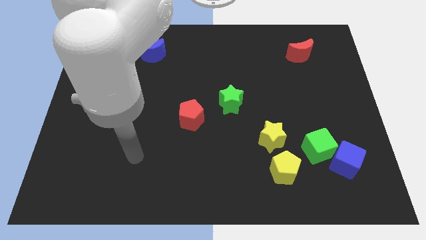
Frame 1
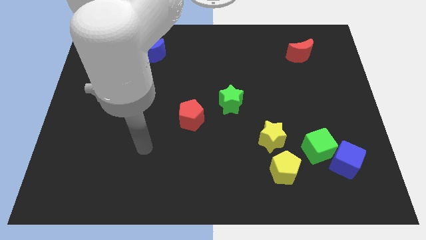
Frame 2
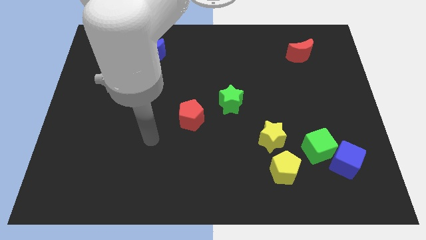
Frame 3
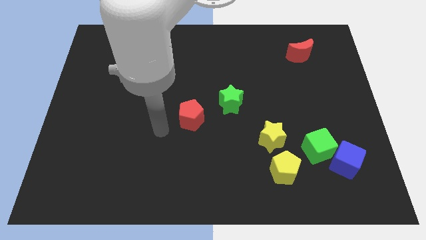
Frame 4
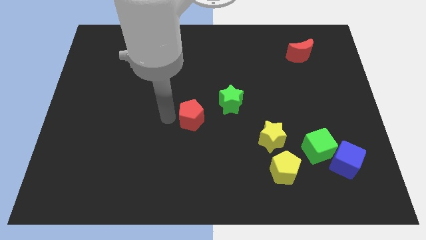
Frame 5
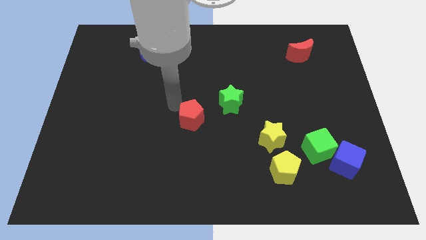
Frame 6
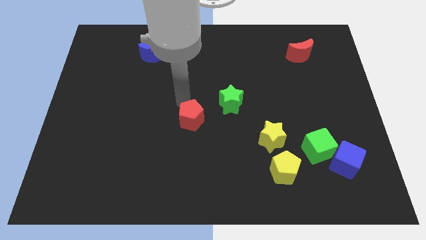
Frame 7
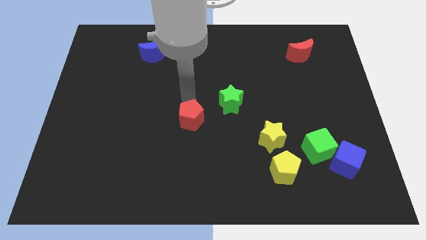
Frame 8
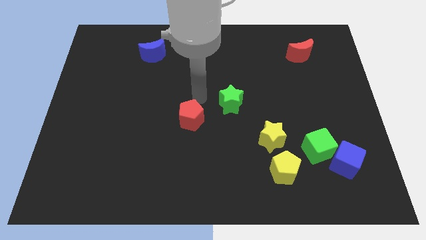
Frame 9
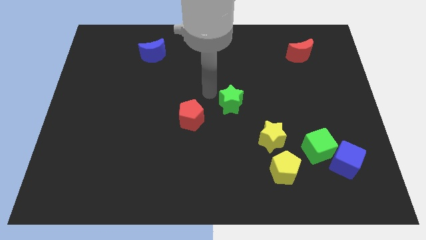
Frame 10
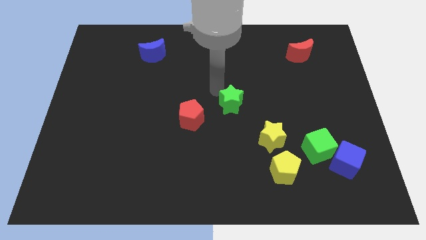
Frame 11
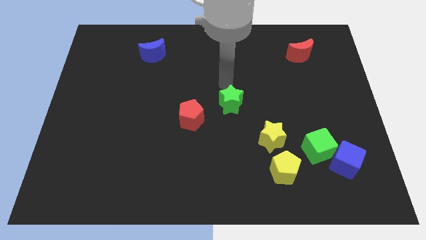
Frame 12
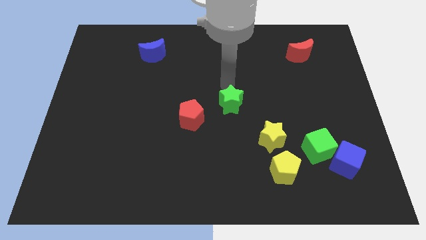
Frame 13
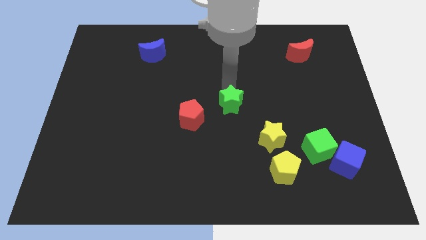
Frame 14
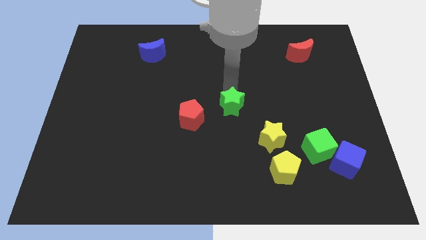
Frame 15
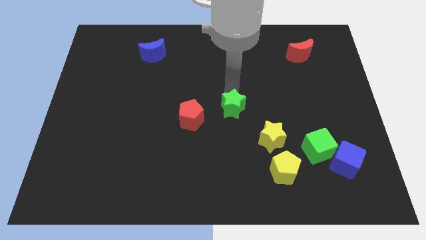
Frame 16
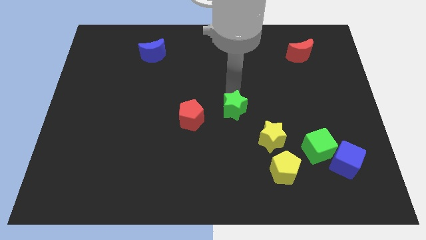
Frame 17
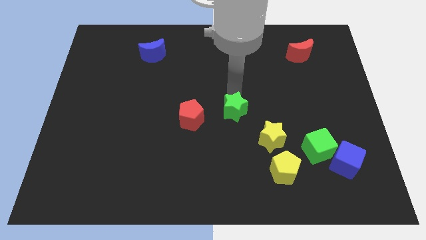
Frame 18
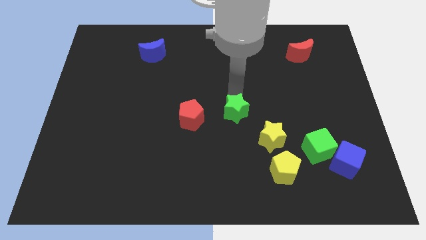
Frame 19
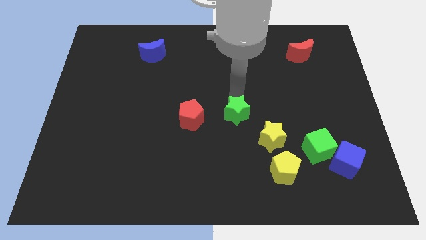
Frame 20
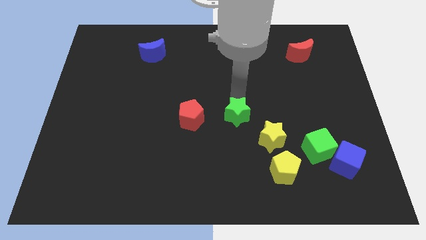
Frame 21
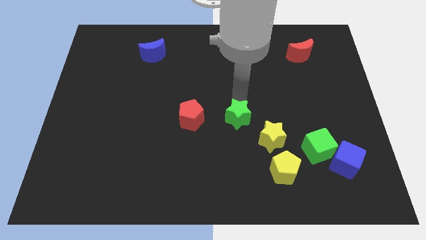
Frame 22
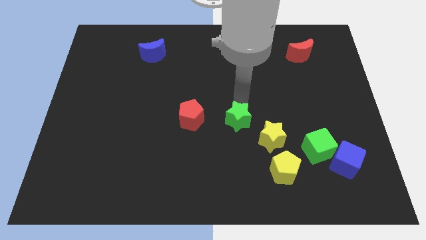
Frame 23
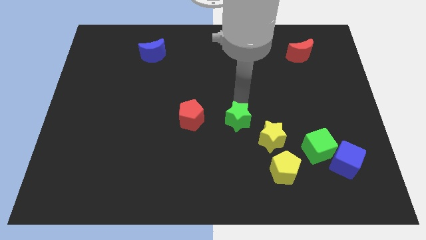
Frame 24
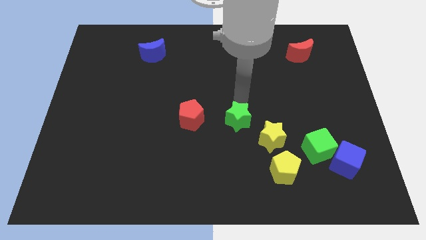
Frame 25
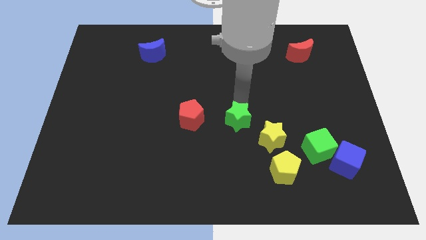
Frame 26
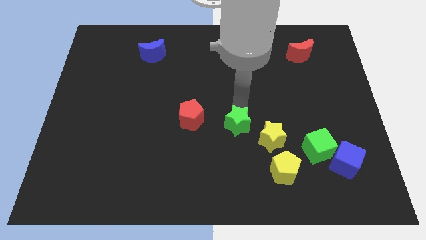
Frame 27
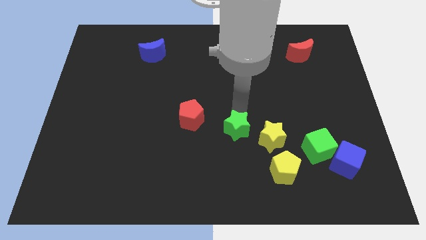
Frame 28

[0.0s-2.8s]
slightly push the green star down

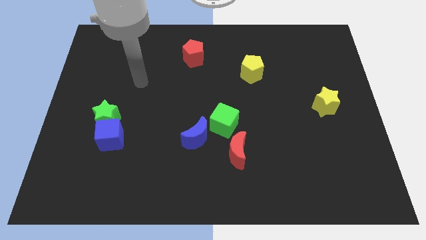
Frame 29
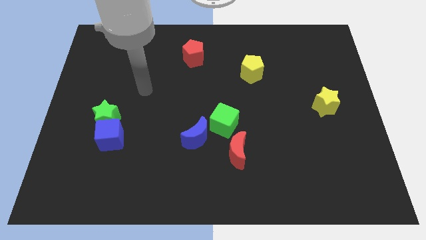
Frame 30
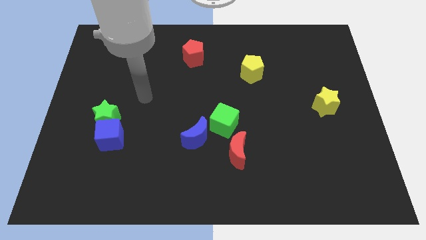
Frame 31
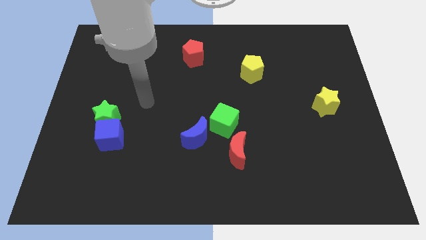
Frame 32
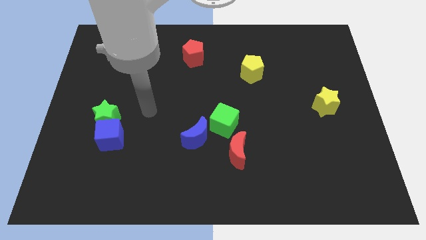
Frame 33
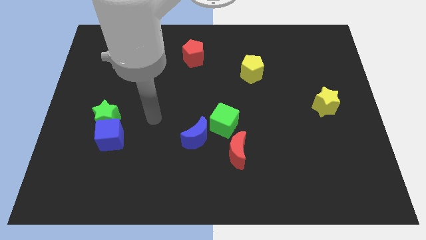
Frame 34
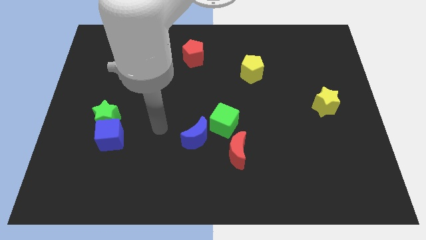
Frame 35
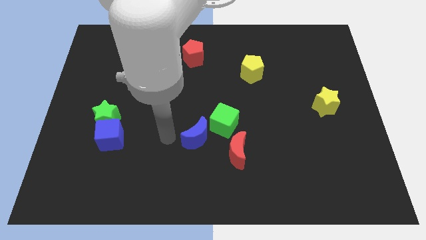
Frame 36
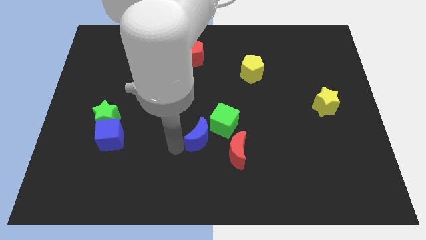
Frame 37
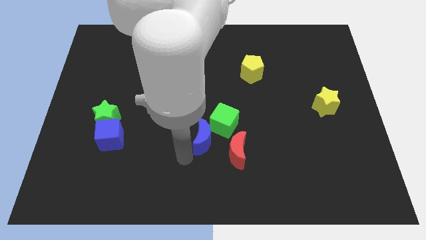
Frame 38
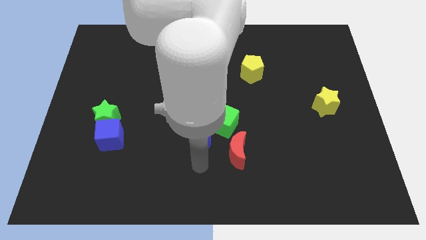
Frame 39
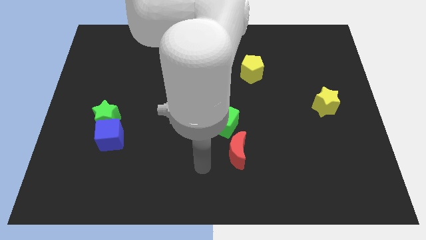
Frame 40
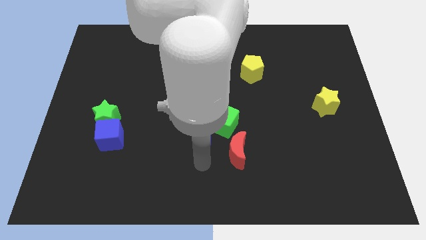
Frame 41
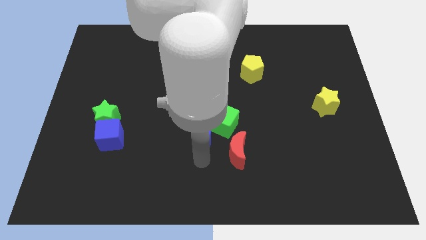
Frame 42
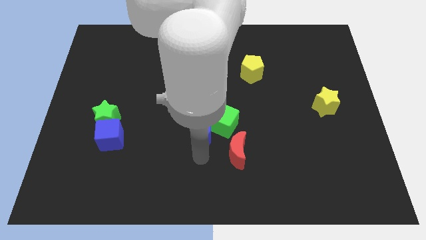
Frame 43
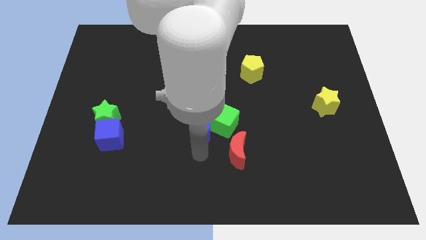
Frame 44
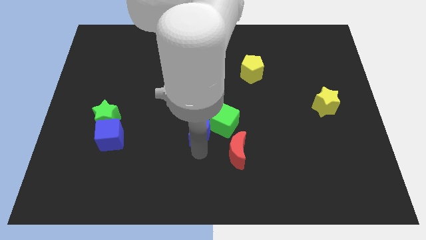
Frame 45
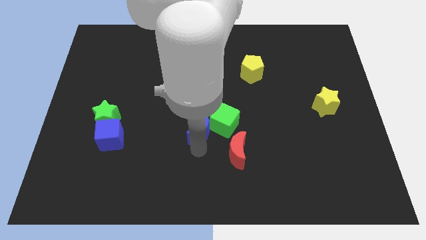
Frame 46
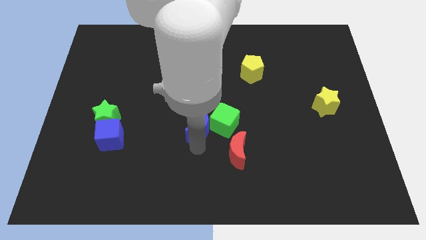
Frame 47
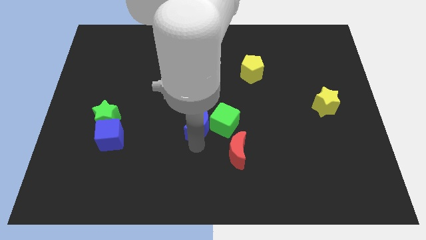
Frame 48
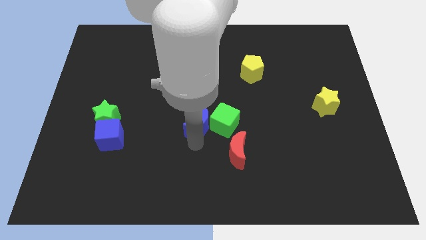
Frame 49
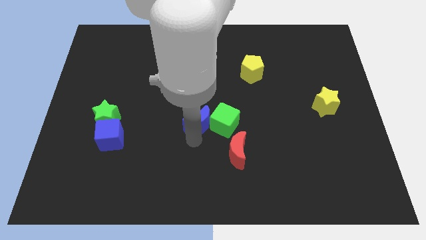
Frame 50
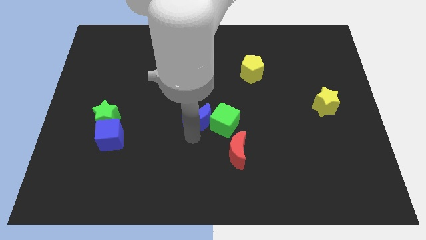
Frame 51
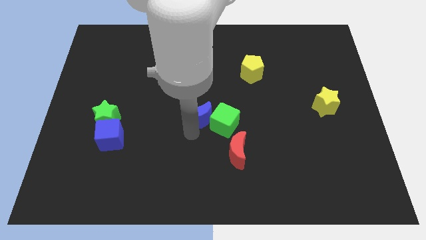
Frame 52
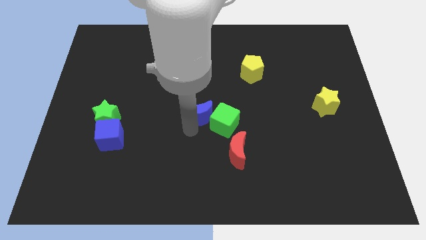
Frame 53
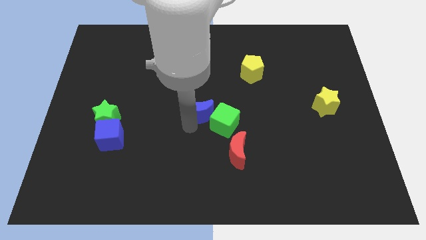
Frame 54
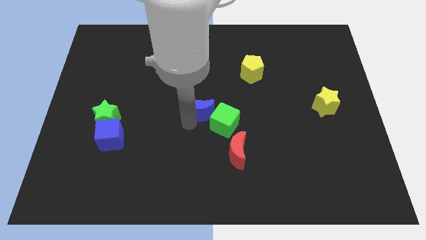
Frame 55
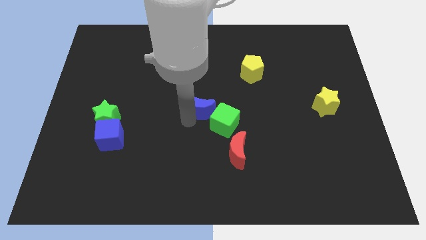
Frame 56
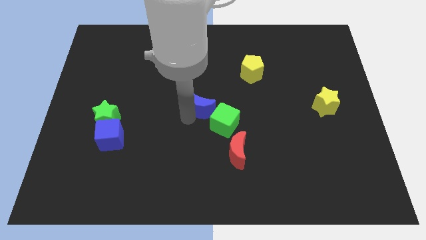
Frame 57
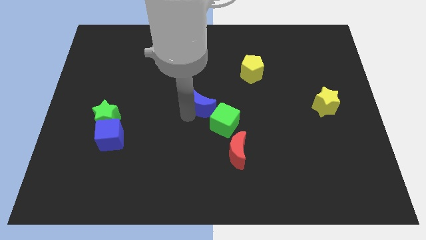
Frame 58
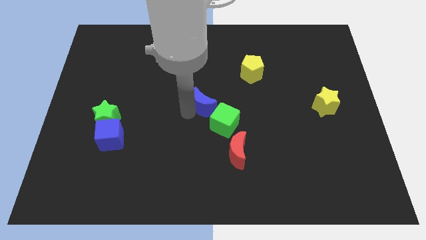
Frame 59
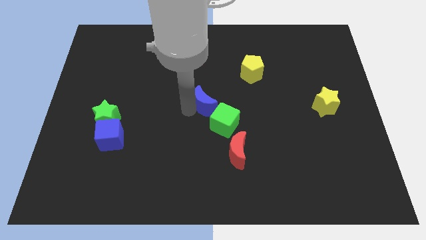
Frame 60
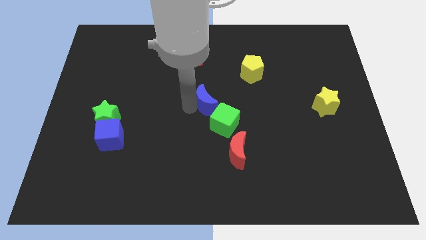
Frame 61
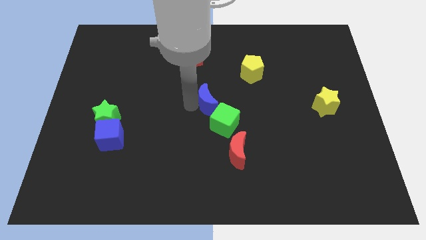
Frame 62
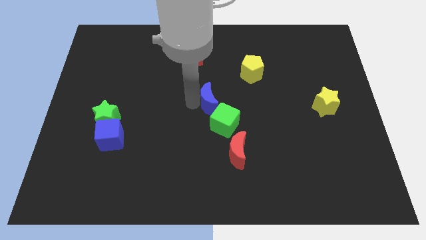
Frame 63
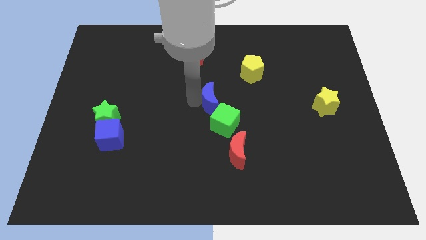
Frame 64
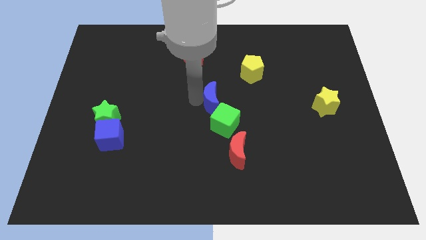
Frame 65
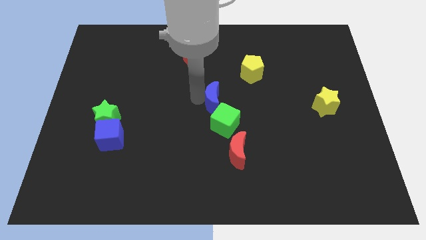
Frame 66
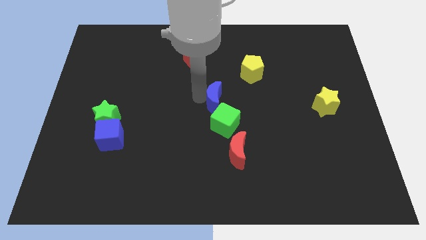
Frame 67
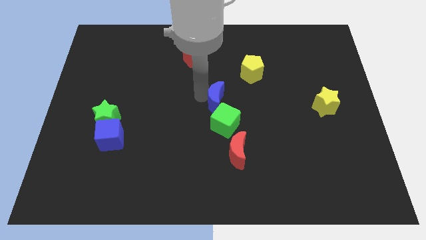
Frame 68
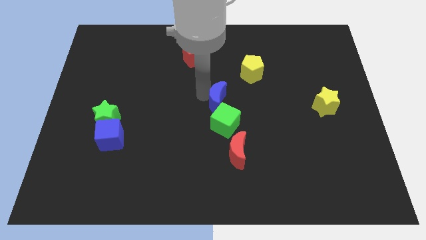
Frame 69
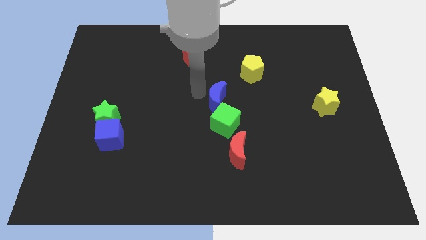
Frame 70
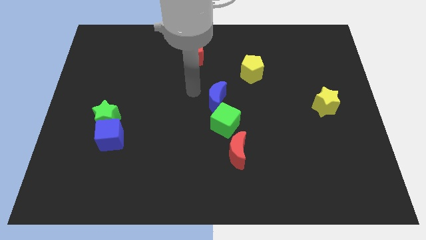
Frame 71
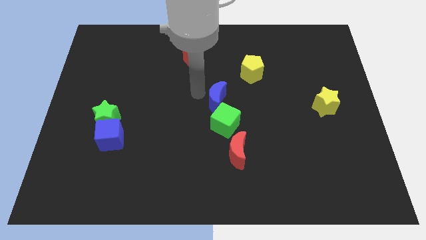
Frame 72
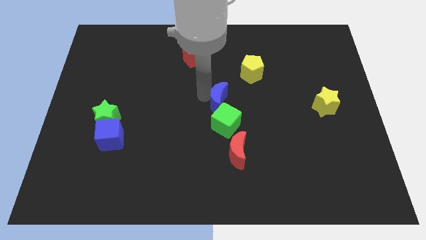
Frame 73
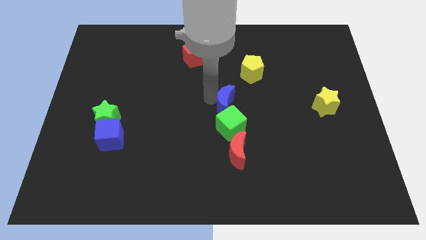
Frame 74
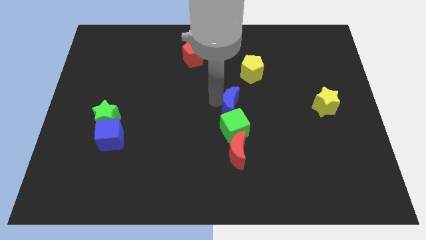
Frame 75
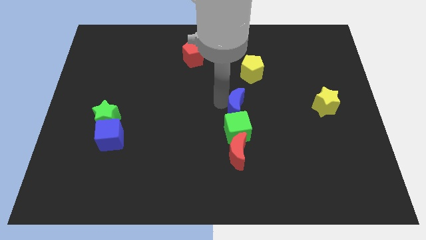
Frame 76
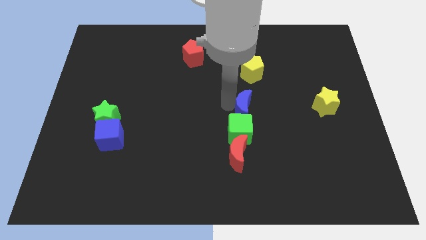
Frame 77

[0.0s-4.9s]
move the blue moon somewhat to the right
